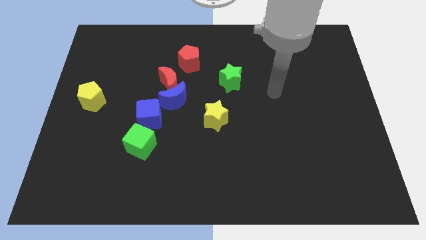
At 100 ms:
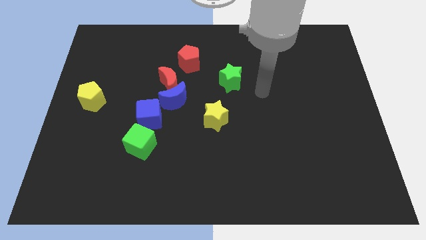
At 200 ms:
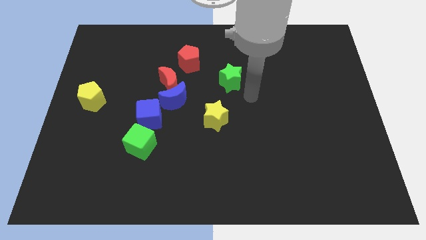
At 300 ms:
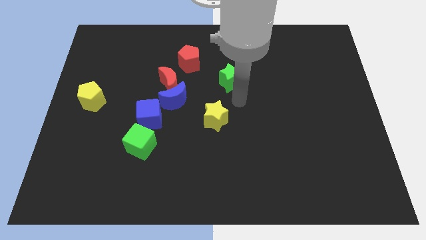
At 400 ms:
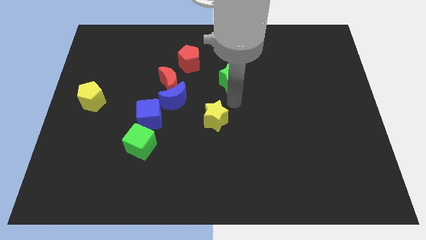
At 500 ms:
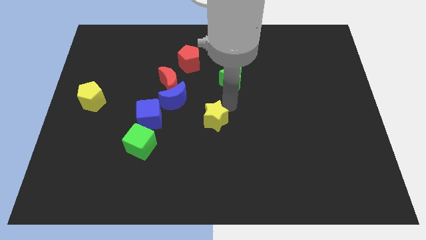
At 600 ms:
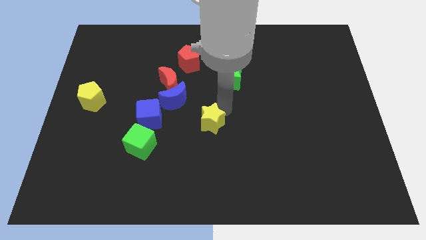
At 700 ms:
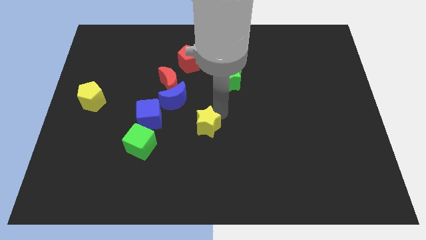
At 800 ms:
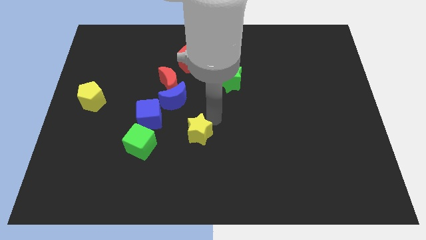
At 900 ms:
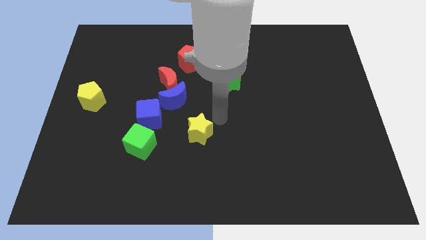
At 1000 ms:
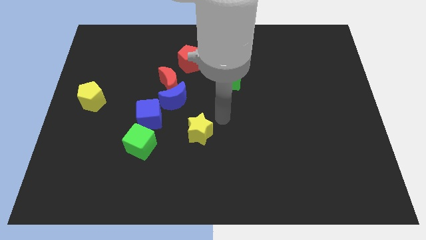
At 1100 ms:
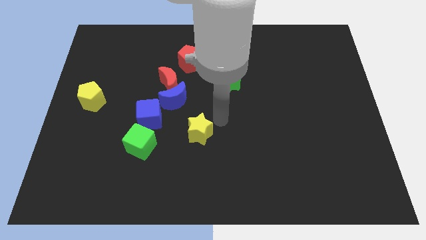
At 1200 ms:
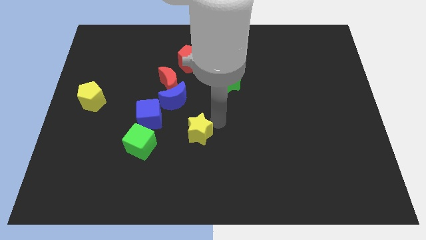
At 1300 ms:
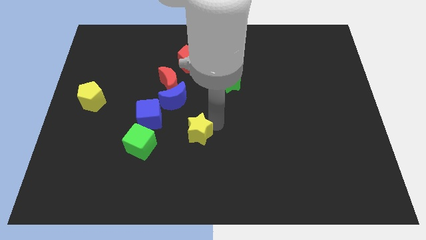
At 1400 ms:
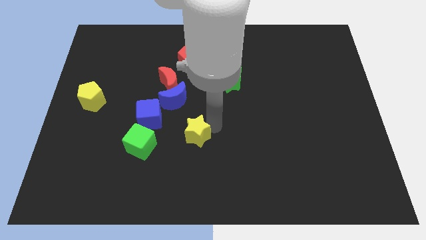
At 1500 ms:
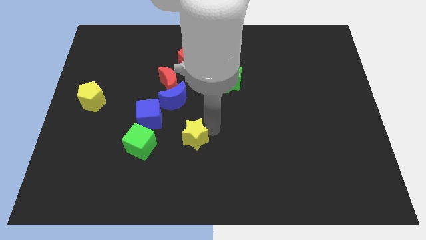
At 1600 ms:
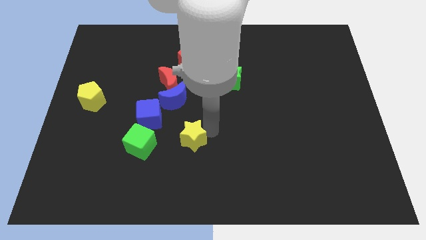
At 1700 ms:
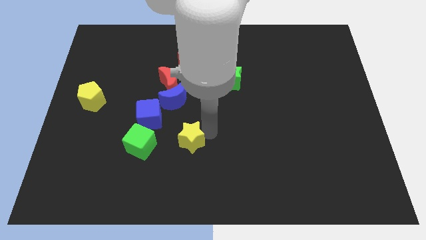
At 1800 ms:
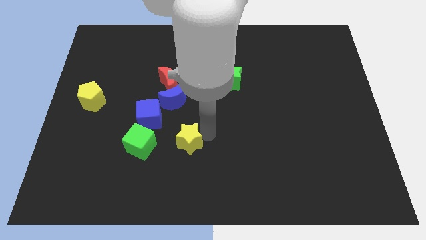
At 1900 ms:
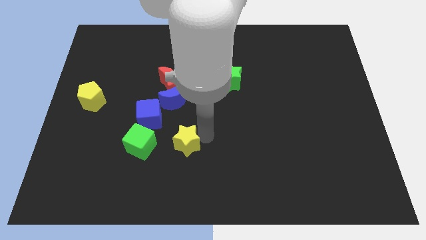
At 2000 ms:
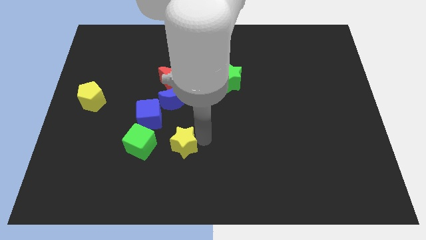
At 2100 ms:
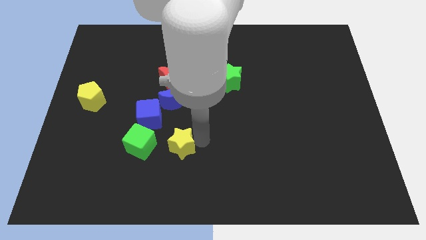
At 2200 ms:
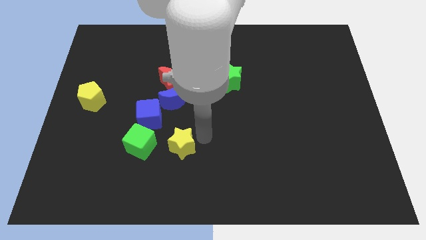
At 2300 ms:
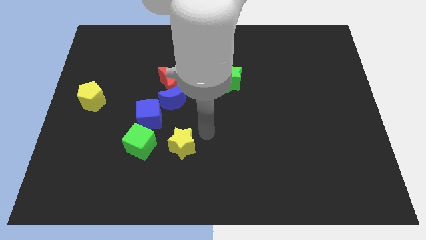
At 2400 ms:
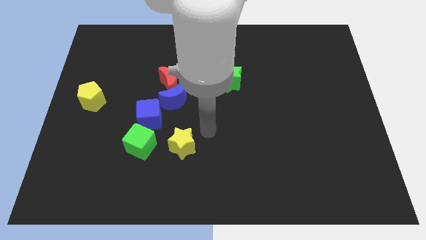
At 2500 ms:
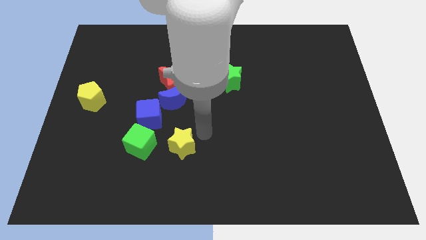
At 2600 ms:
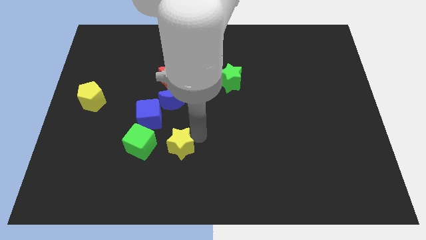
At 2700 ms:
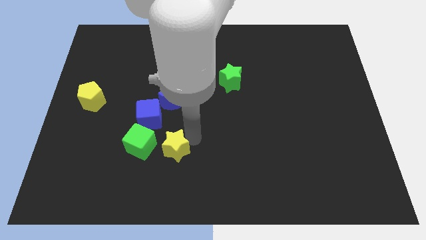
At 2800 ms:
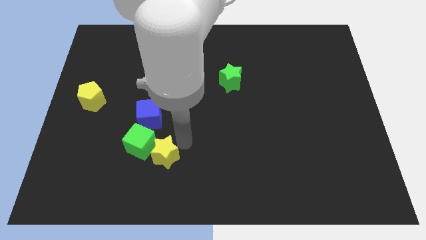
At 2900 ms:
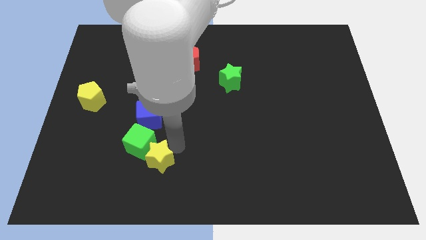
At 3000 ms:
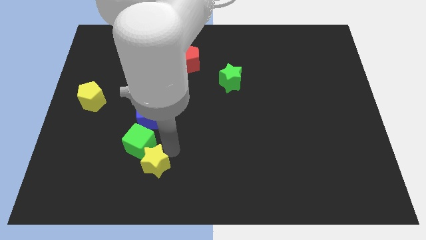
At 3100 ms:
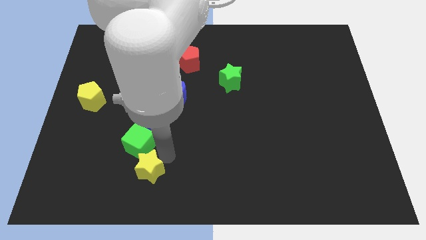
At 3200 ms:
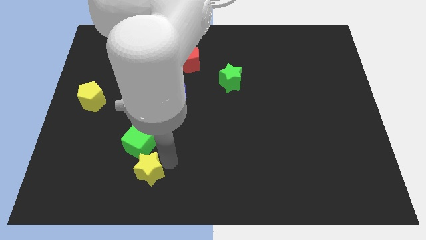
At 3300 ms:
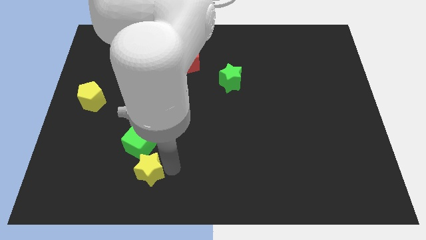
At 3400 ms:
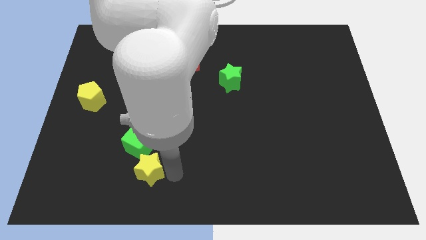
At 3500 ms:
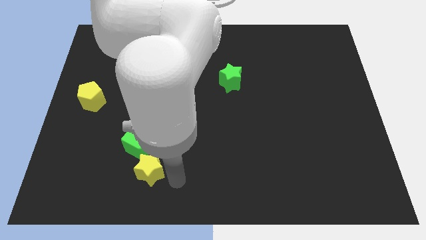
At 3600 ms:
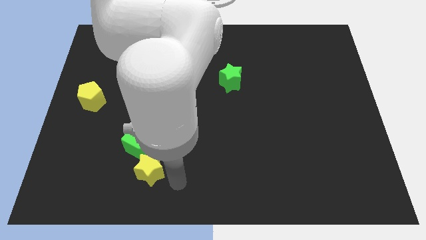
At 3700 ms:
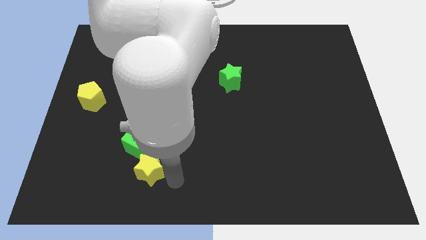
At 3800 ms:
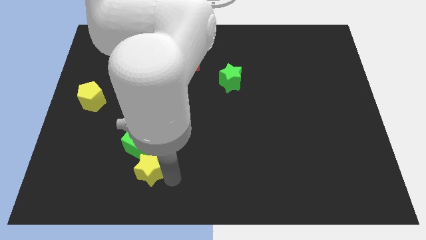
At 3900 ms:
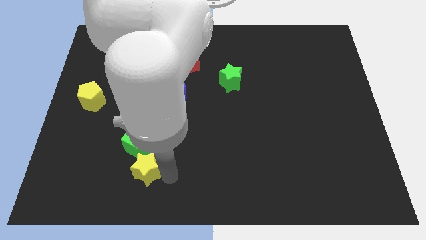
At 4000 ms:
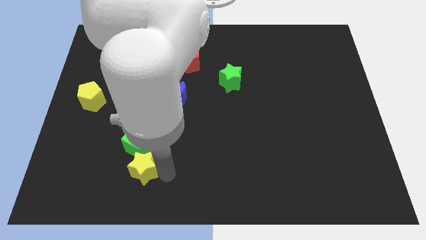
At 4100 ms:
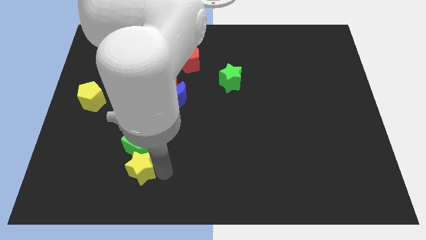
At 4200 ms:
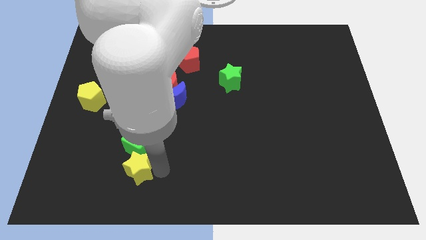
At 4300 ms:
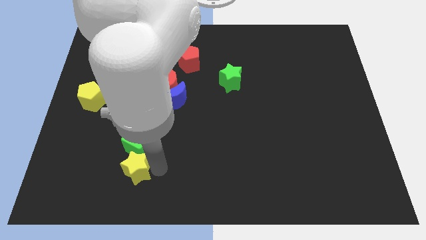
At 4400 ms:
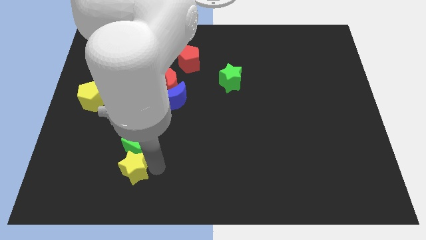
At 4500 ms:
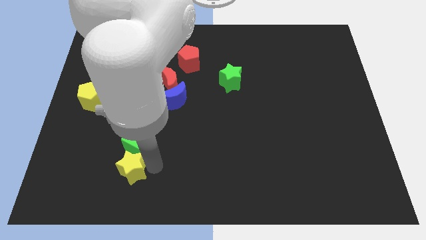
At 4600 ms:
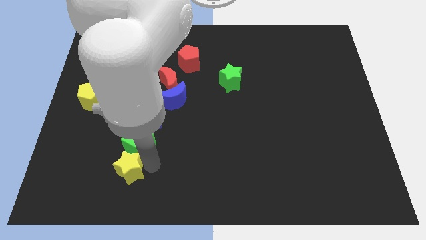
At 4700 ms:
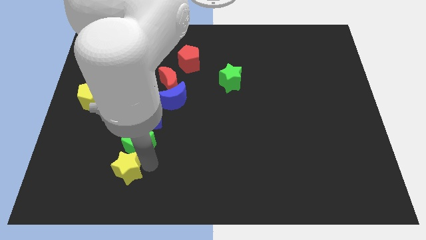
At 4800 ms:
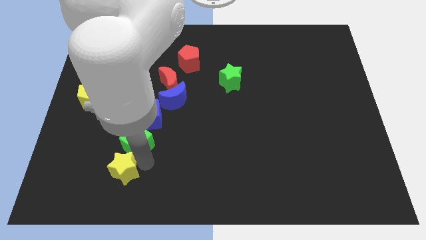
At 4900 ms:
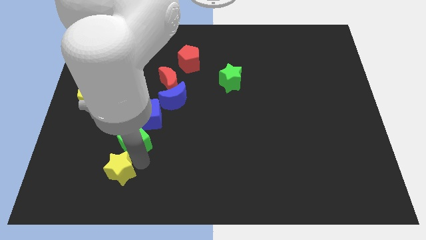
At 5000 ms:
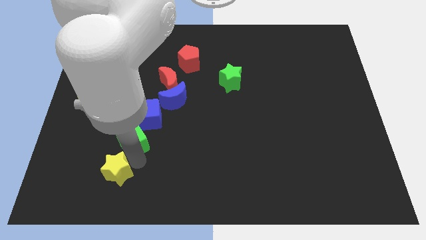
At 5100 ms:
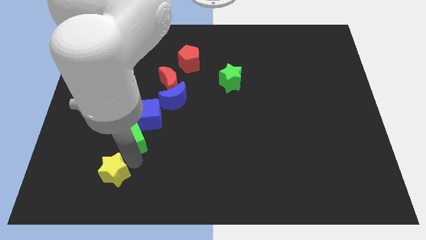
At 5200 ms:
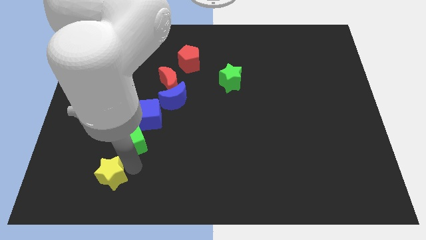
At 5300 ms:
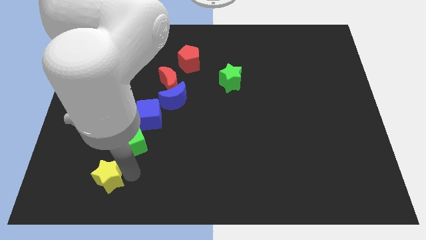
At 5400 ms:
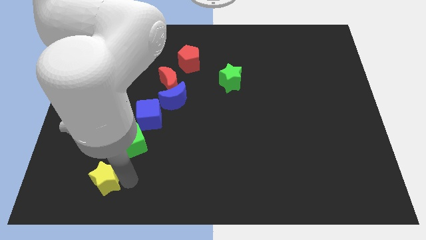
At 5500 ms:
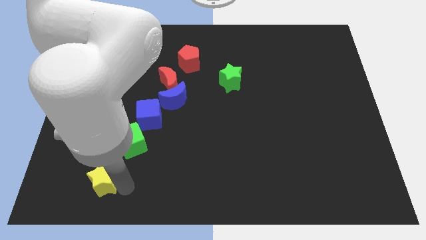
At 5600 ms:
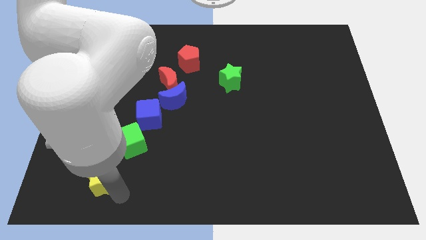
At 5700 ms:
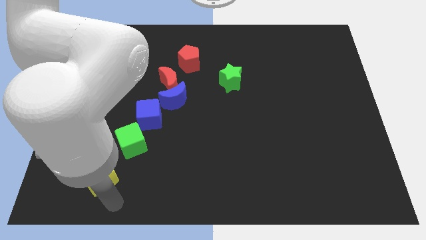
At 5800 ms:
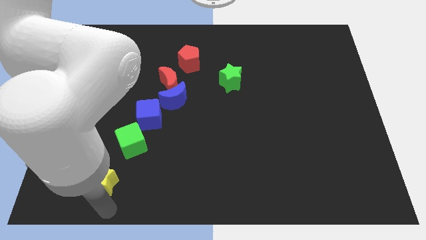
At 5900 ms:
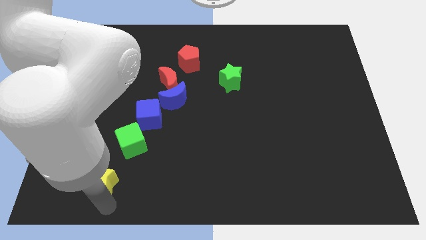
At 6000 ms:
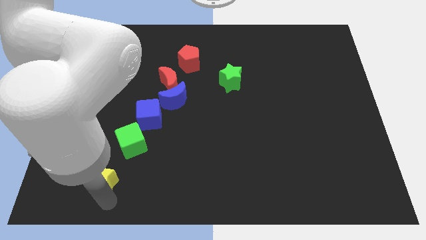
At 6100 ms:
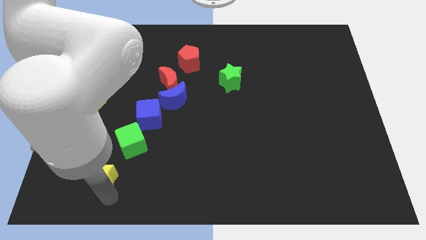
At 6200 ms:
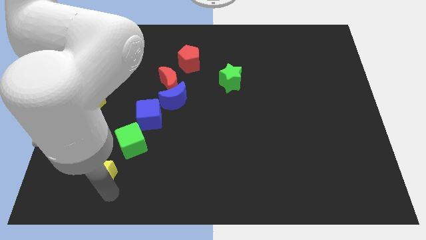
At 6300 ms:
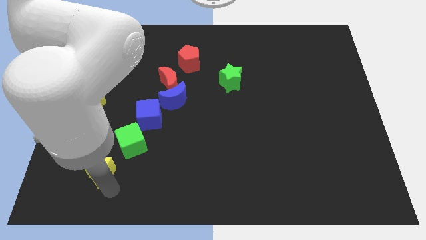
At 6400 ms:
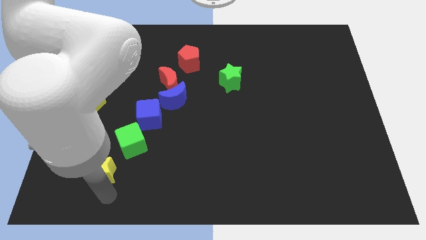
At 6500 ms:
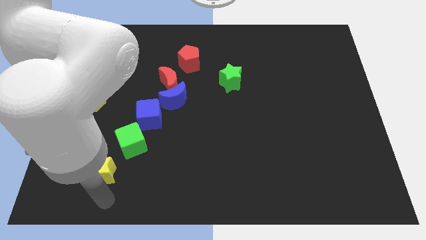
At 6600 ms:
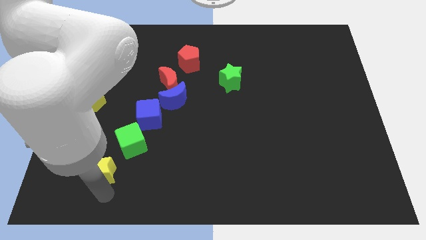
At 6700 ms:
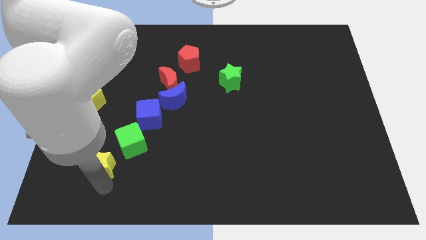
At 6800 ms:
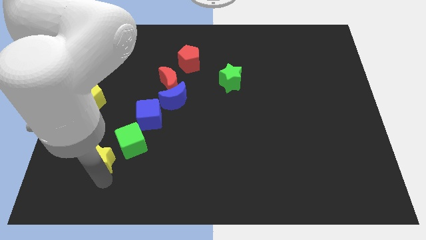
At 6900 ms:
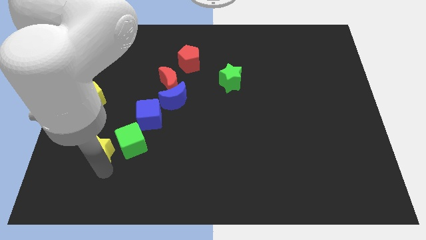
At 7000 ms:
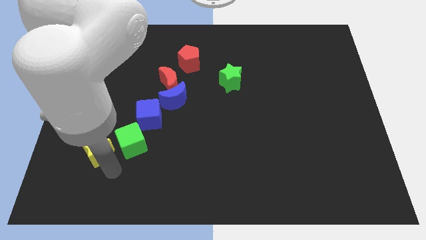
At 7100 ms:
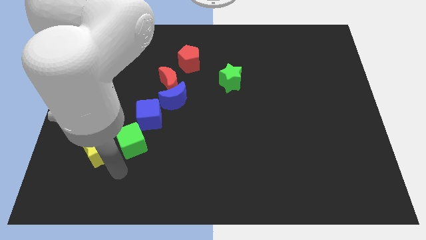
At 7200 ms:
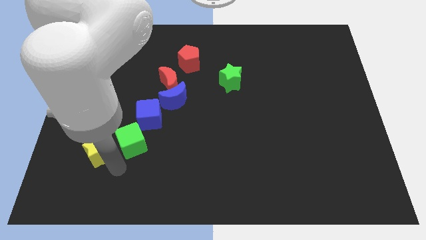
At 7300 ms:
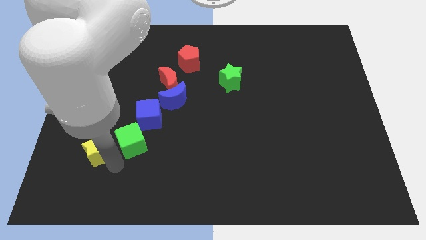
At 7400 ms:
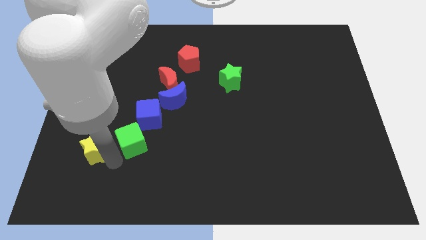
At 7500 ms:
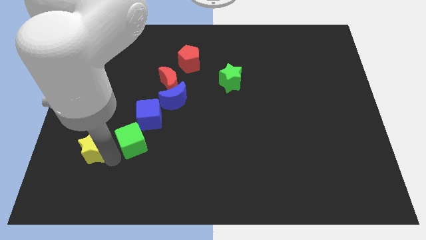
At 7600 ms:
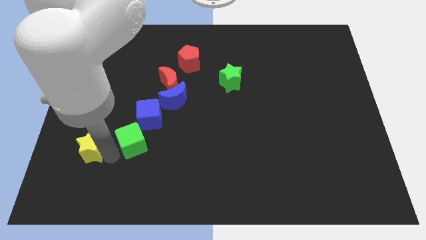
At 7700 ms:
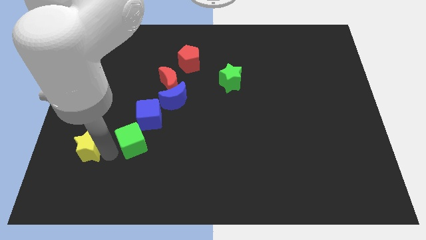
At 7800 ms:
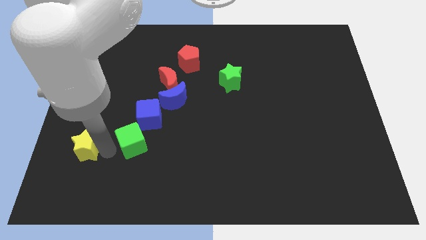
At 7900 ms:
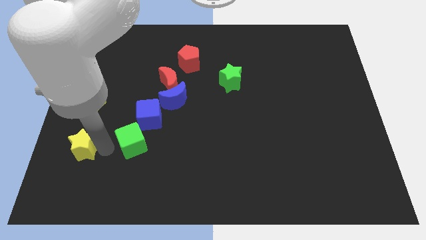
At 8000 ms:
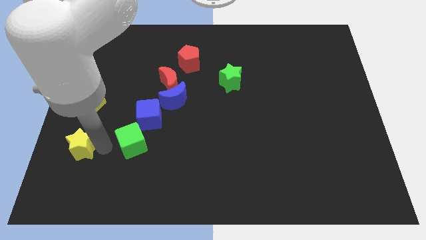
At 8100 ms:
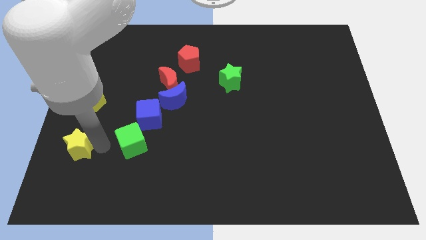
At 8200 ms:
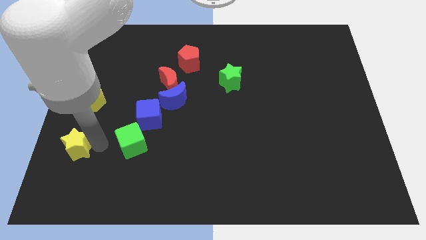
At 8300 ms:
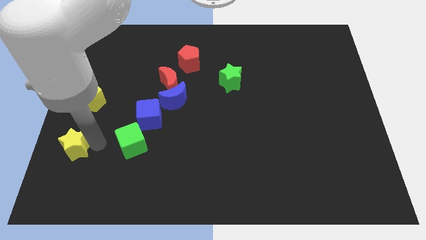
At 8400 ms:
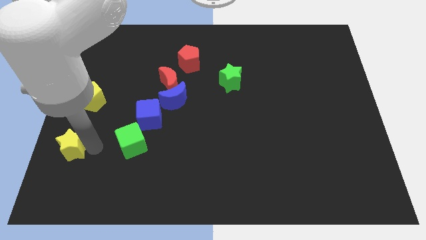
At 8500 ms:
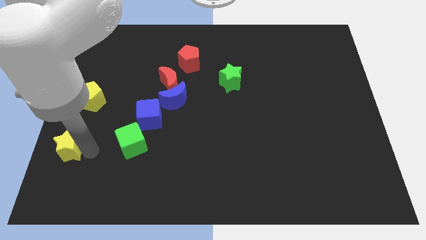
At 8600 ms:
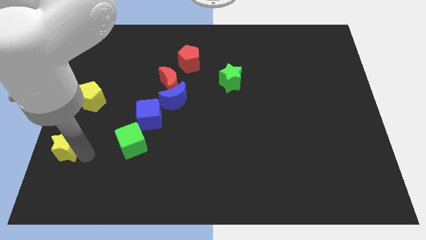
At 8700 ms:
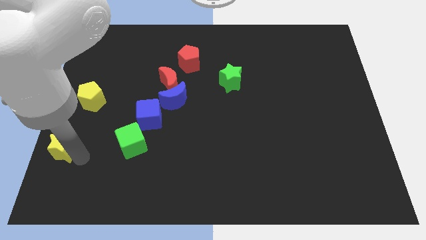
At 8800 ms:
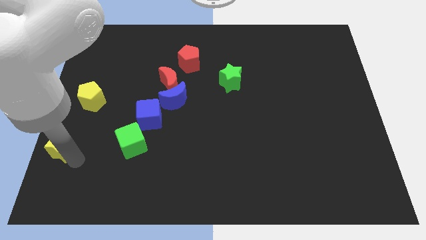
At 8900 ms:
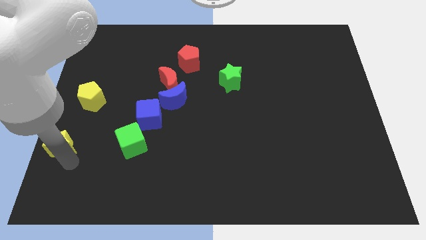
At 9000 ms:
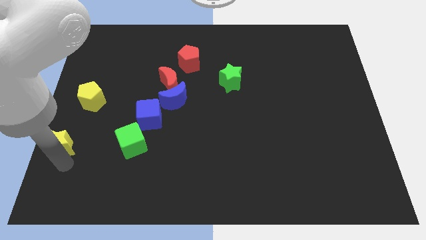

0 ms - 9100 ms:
slide the yellow star to the center left
